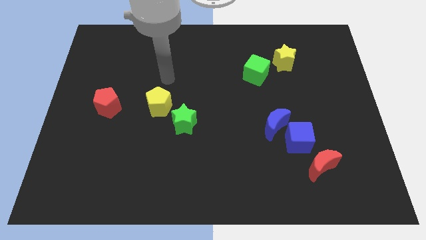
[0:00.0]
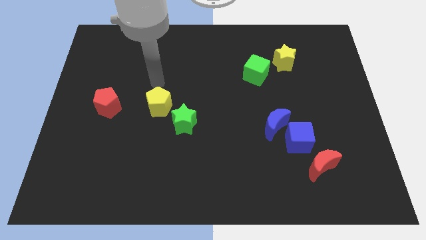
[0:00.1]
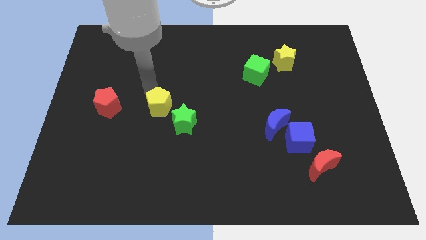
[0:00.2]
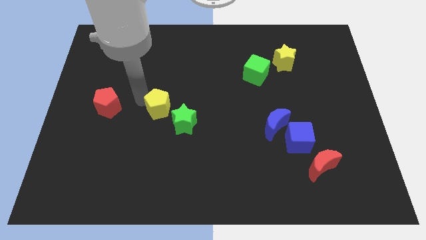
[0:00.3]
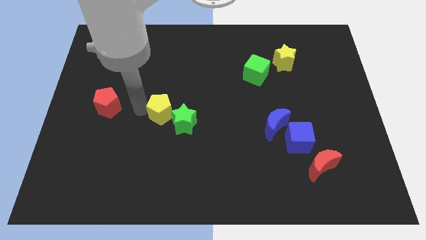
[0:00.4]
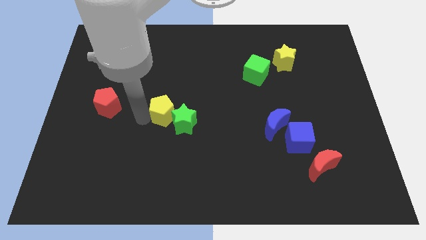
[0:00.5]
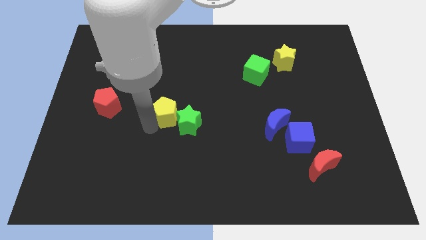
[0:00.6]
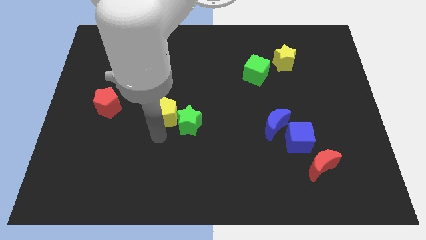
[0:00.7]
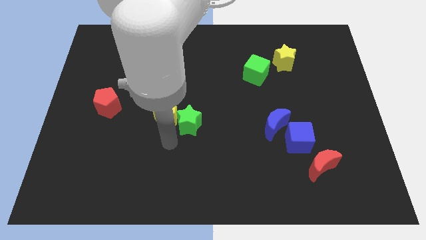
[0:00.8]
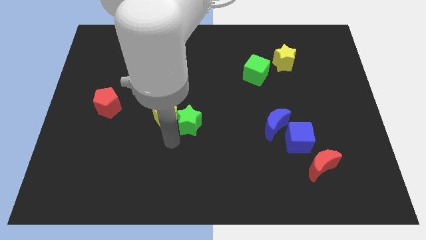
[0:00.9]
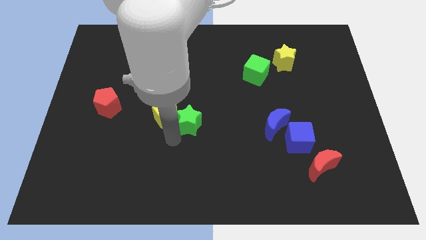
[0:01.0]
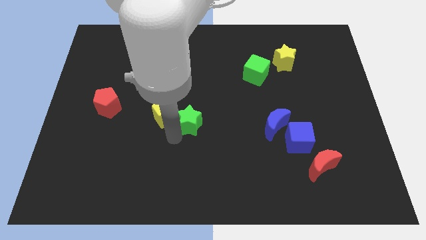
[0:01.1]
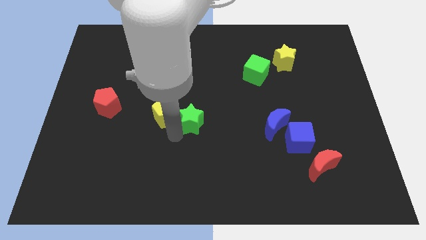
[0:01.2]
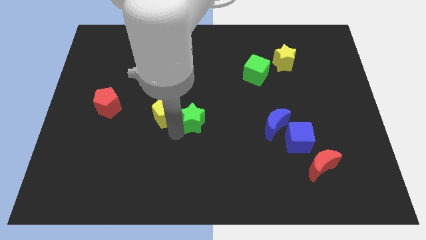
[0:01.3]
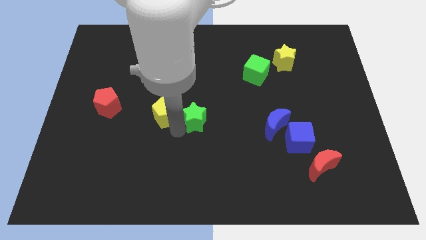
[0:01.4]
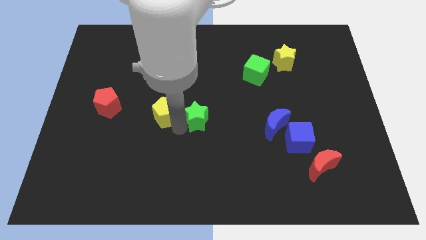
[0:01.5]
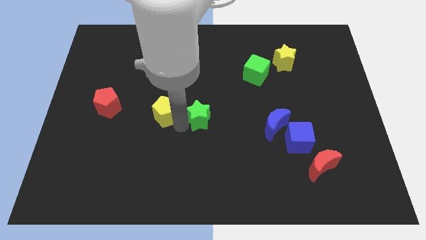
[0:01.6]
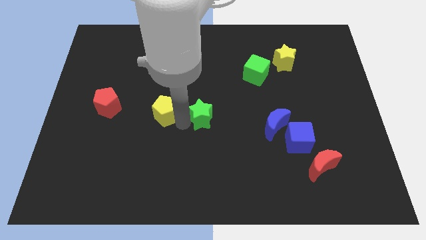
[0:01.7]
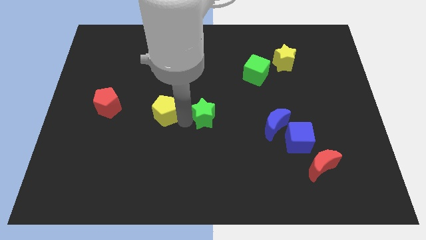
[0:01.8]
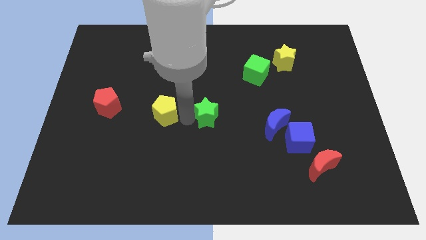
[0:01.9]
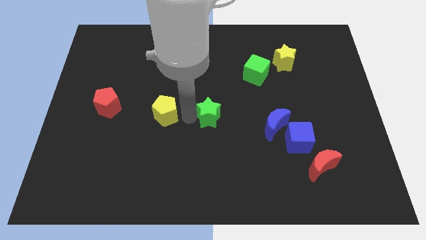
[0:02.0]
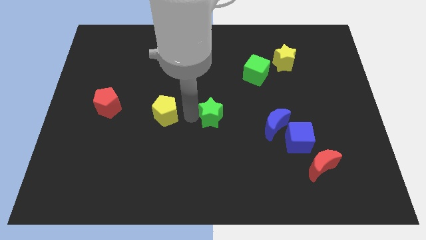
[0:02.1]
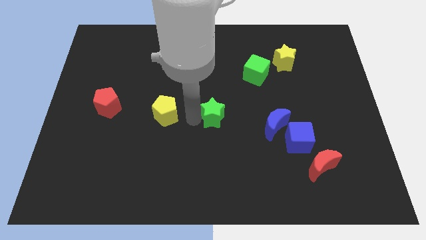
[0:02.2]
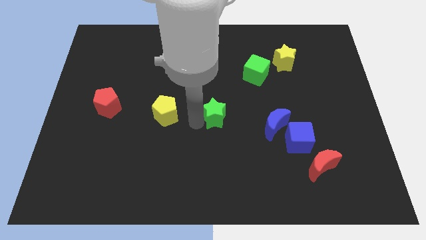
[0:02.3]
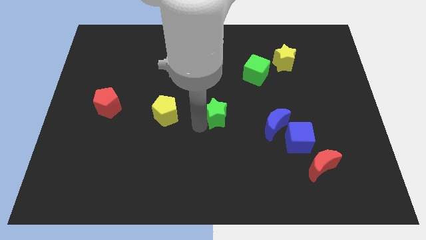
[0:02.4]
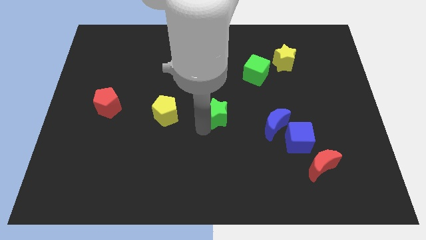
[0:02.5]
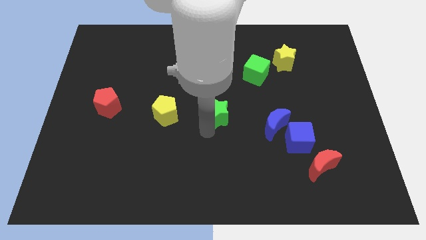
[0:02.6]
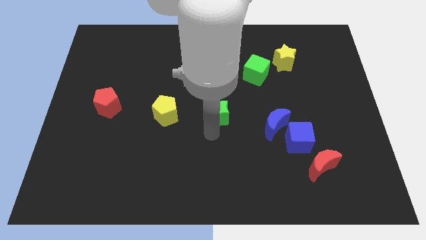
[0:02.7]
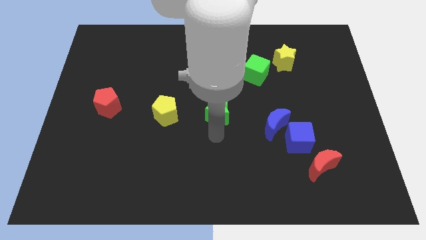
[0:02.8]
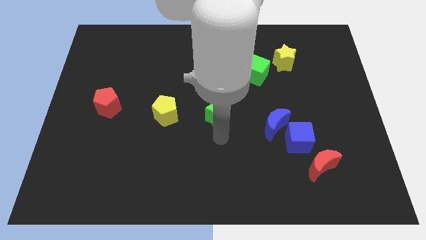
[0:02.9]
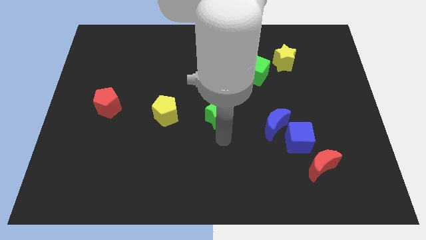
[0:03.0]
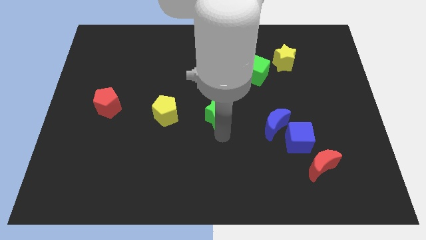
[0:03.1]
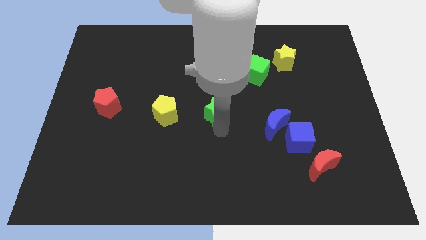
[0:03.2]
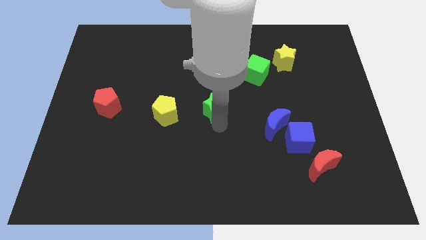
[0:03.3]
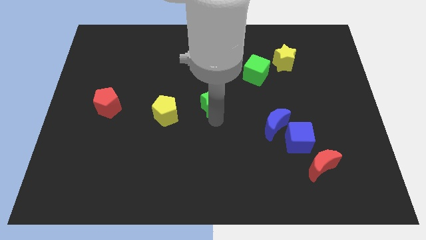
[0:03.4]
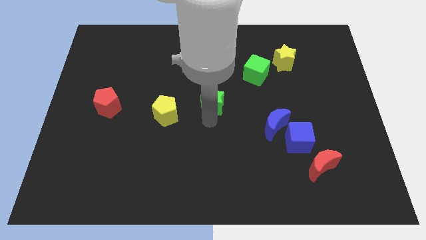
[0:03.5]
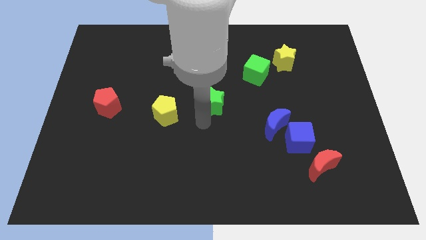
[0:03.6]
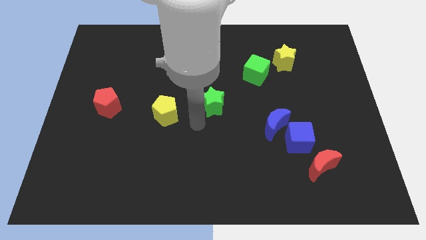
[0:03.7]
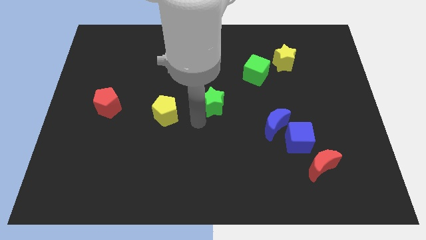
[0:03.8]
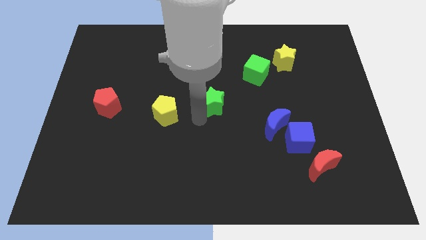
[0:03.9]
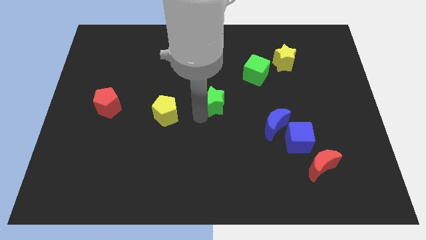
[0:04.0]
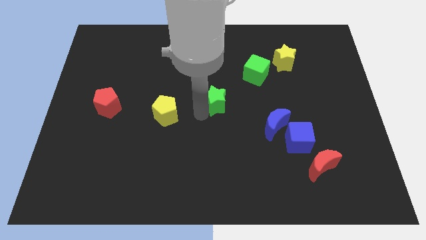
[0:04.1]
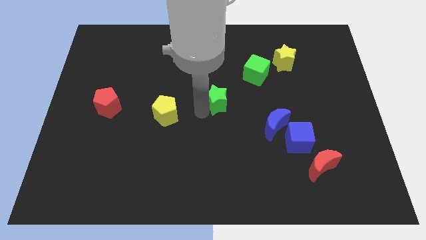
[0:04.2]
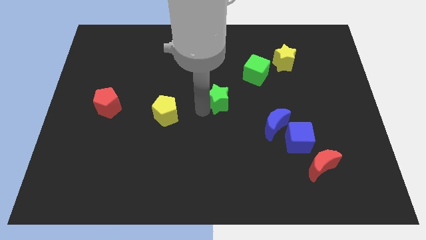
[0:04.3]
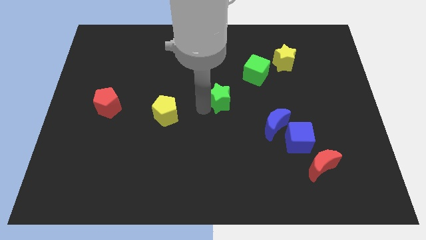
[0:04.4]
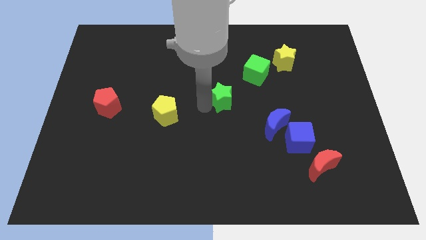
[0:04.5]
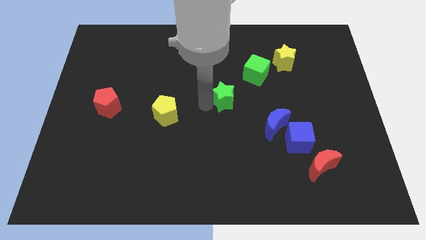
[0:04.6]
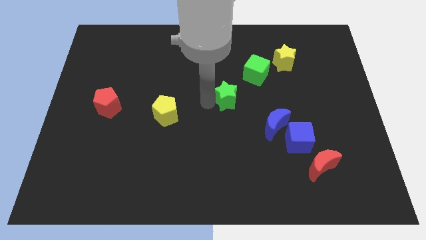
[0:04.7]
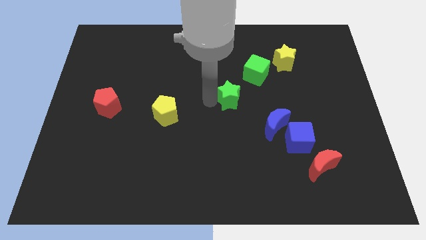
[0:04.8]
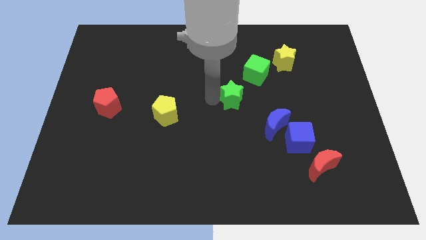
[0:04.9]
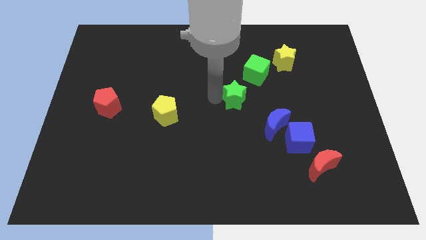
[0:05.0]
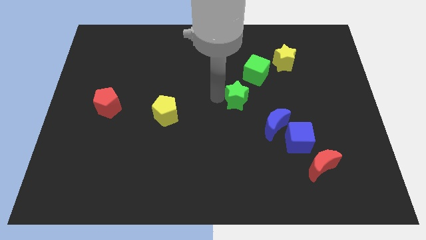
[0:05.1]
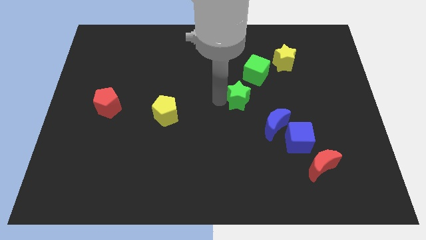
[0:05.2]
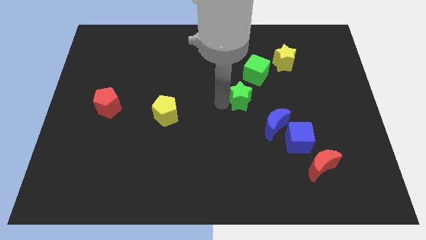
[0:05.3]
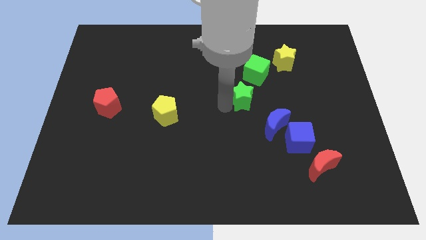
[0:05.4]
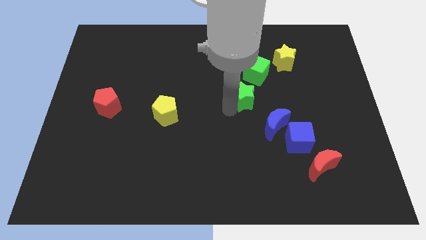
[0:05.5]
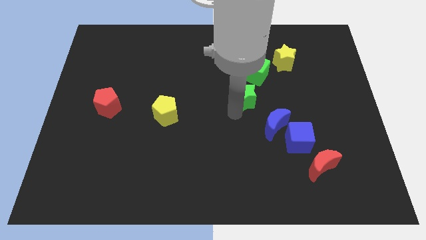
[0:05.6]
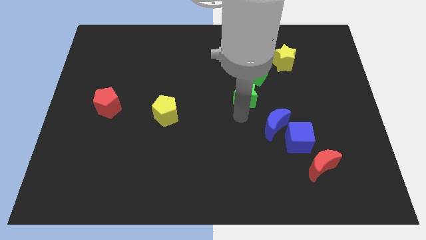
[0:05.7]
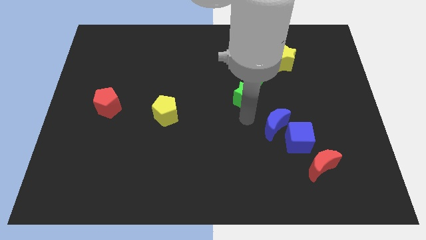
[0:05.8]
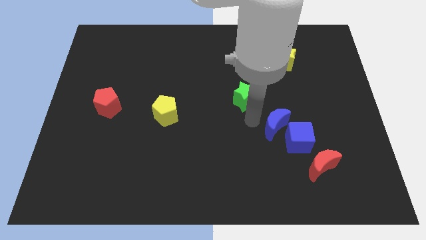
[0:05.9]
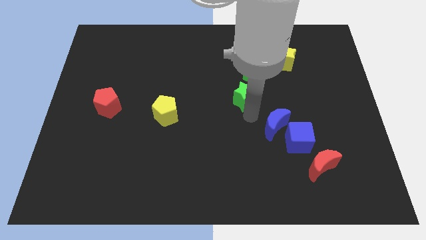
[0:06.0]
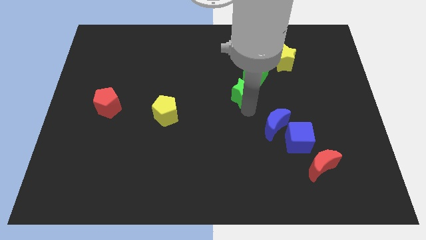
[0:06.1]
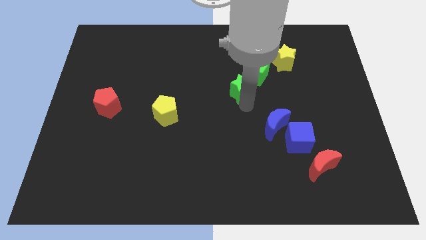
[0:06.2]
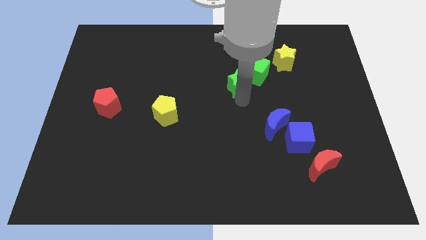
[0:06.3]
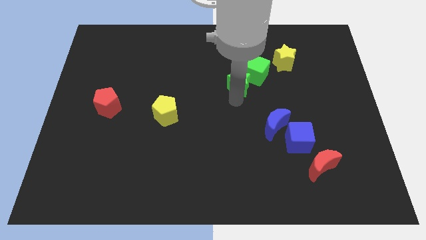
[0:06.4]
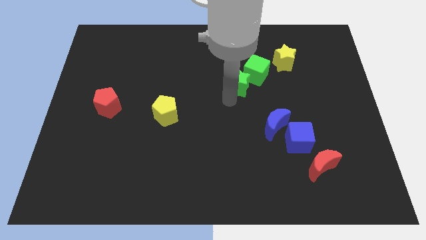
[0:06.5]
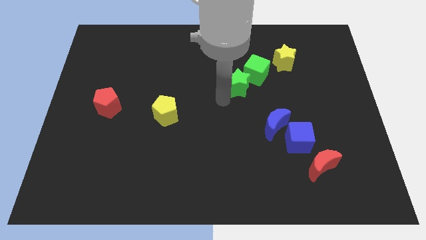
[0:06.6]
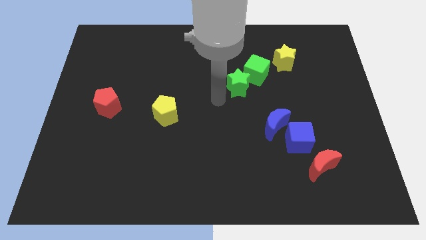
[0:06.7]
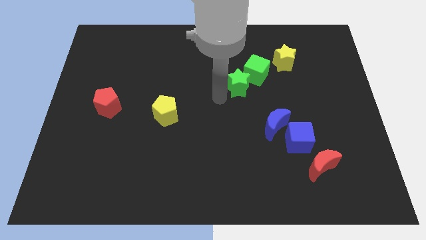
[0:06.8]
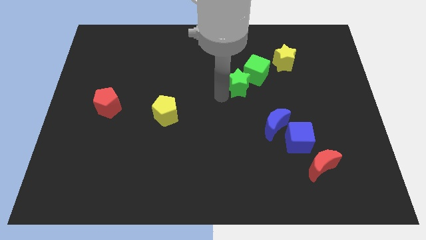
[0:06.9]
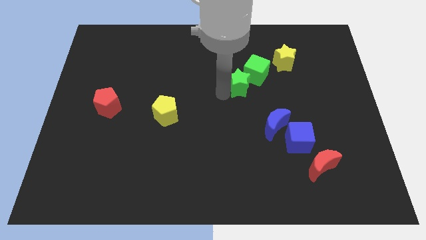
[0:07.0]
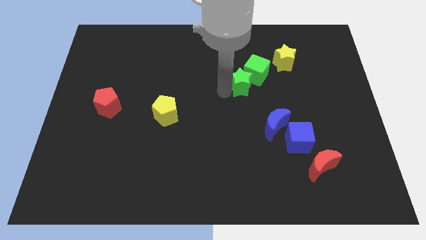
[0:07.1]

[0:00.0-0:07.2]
push the green star to the green cube
